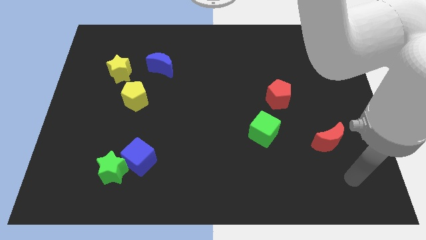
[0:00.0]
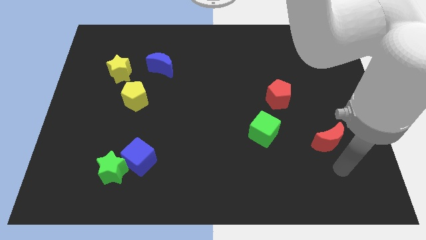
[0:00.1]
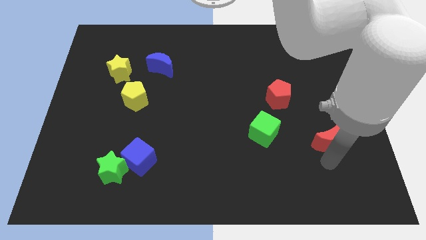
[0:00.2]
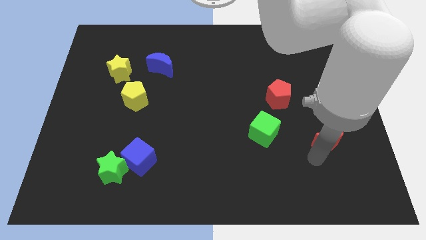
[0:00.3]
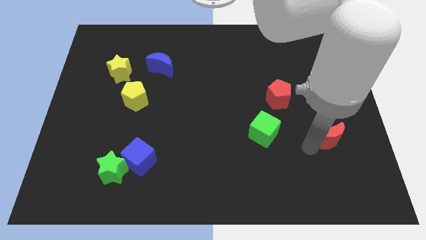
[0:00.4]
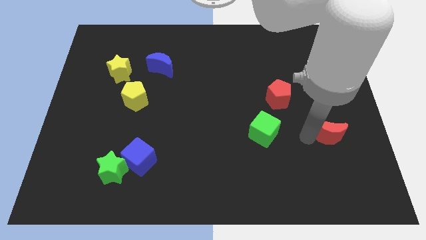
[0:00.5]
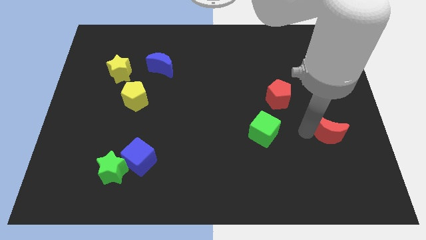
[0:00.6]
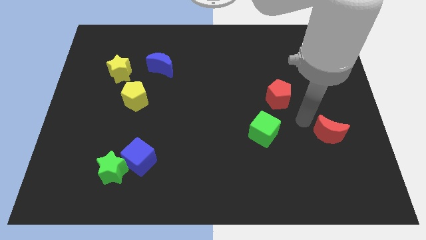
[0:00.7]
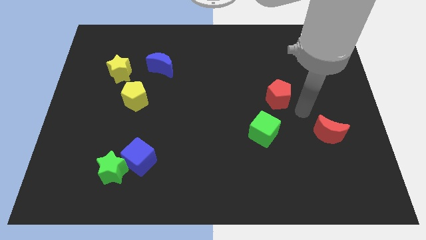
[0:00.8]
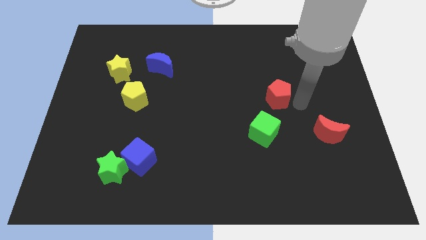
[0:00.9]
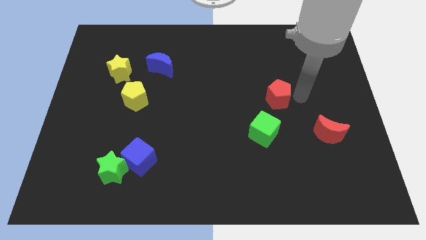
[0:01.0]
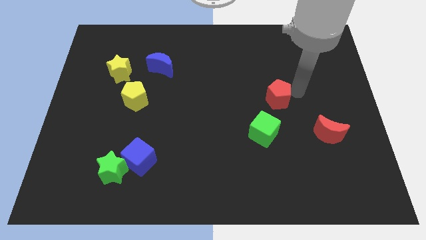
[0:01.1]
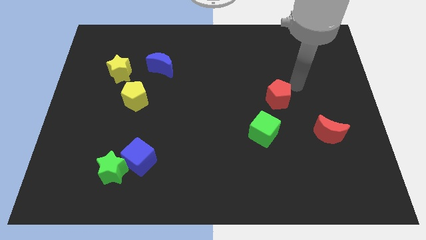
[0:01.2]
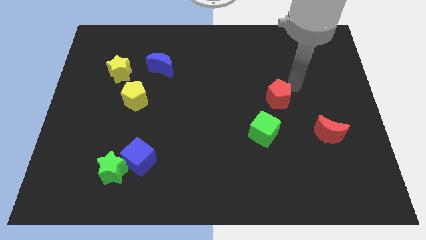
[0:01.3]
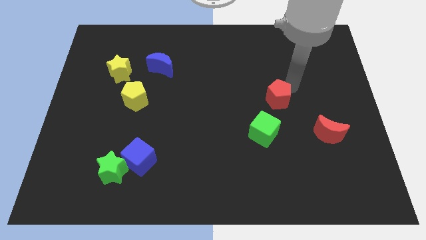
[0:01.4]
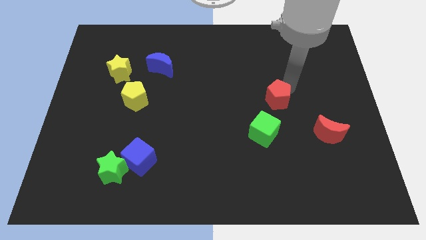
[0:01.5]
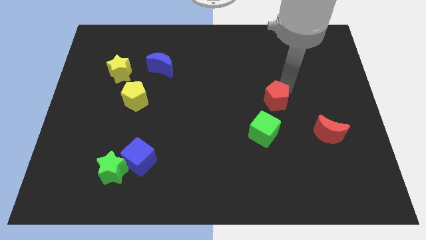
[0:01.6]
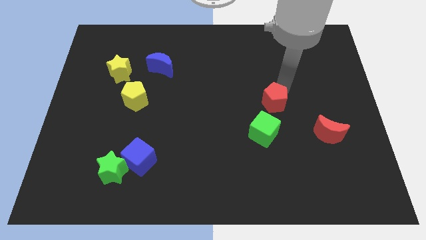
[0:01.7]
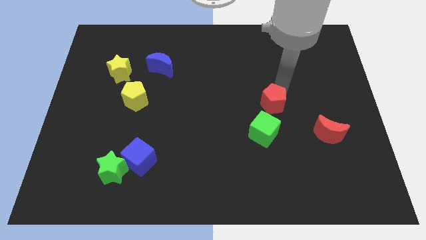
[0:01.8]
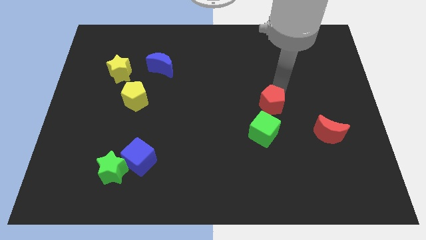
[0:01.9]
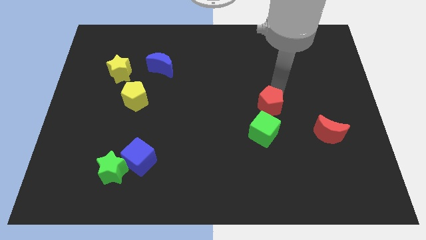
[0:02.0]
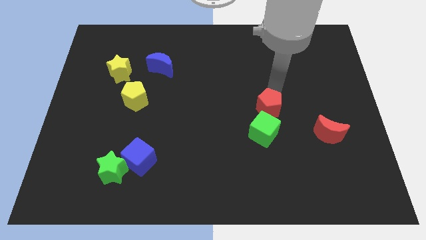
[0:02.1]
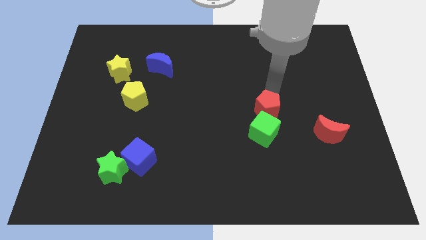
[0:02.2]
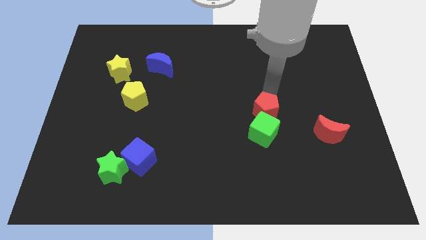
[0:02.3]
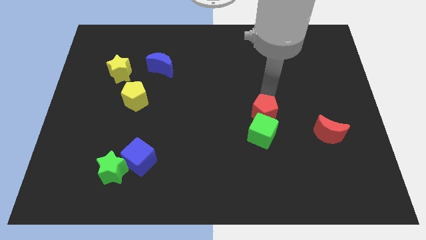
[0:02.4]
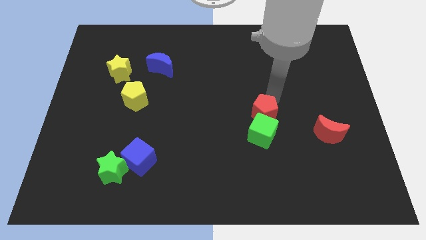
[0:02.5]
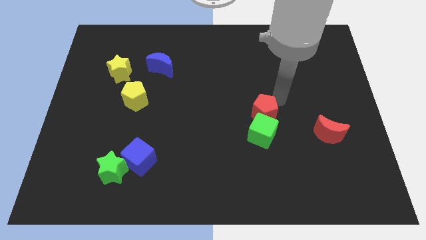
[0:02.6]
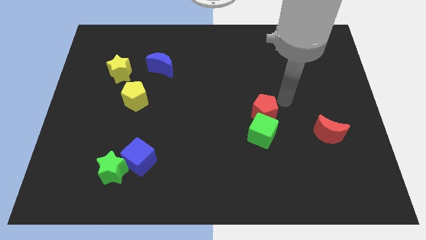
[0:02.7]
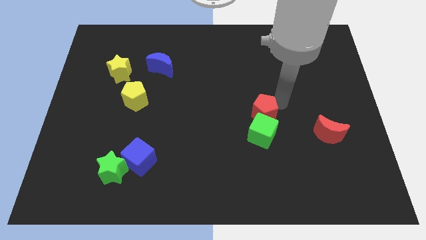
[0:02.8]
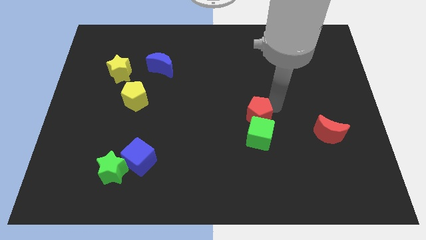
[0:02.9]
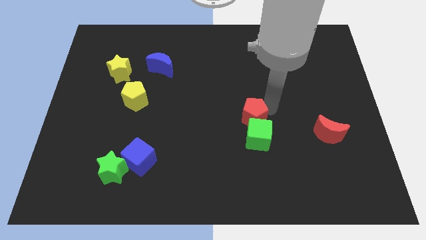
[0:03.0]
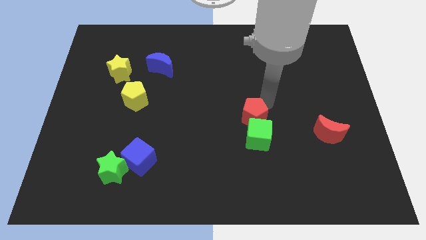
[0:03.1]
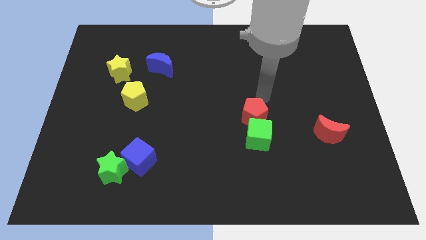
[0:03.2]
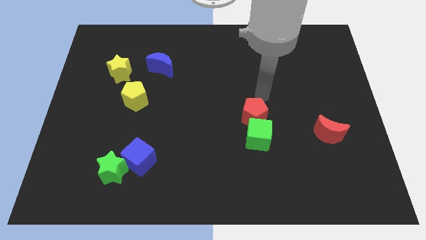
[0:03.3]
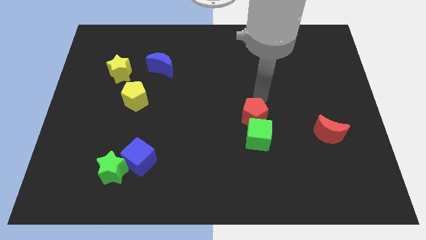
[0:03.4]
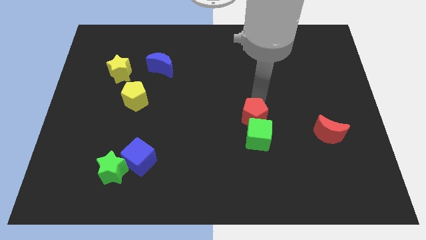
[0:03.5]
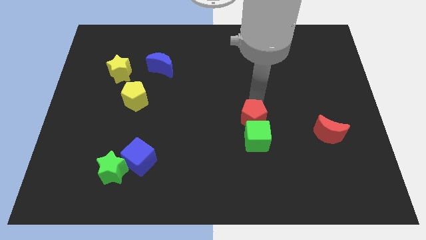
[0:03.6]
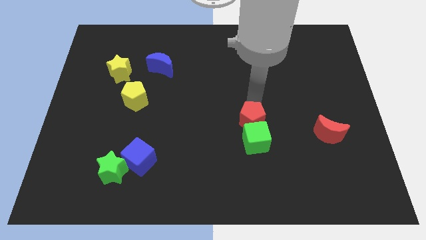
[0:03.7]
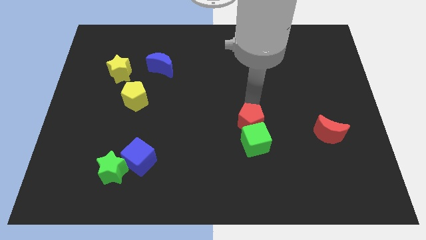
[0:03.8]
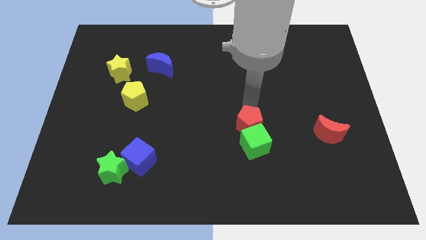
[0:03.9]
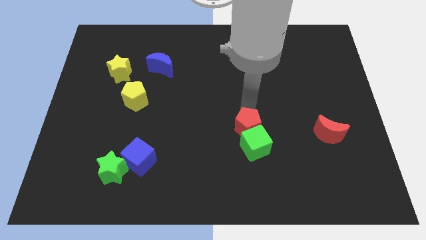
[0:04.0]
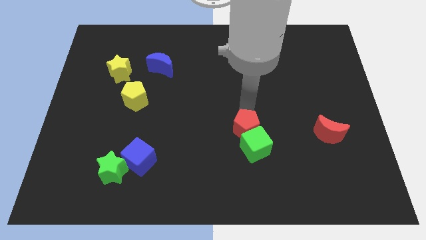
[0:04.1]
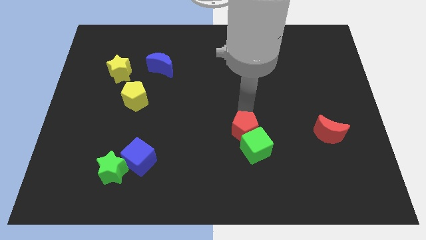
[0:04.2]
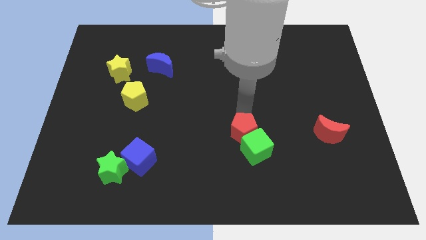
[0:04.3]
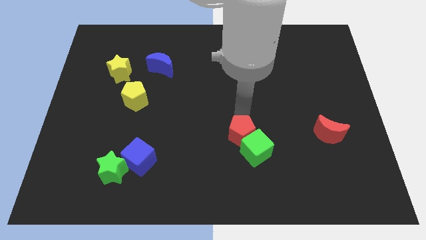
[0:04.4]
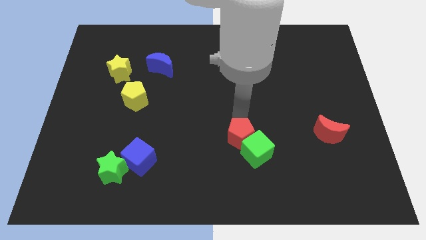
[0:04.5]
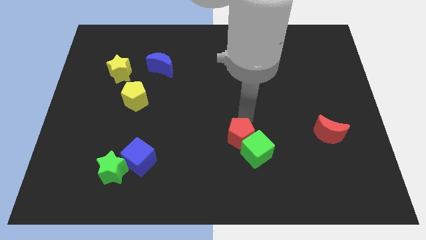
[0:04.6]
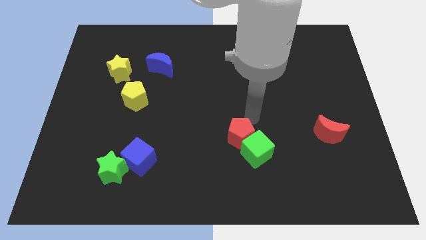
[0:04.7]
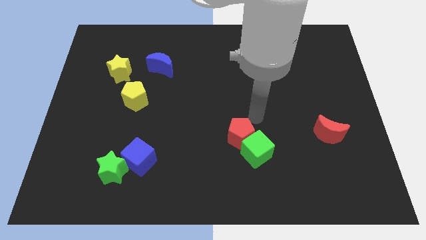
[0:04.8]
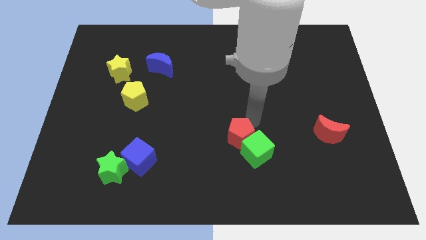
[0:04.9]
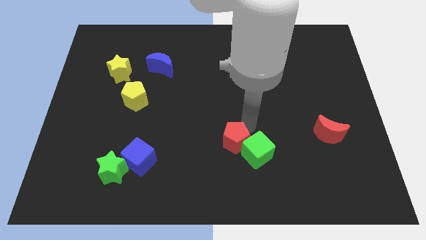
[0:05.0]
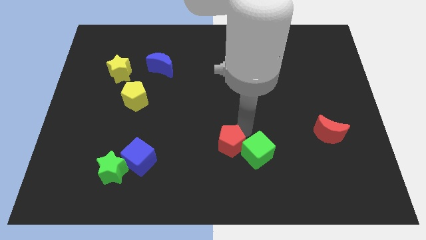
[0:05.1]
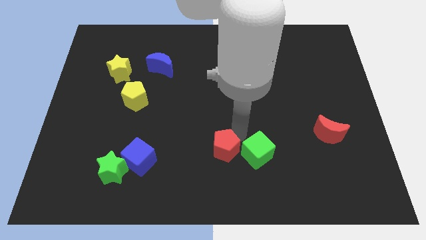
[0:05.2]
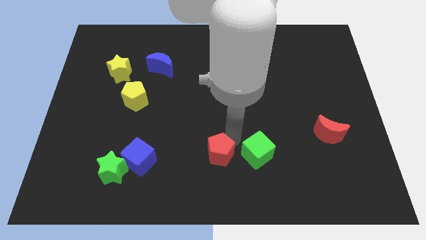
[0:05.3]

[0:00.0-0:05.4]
move the red pentagon to the bottom side
